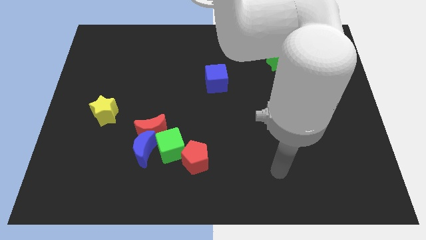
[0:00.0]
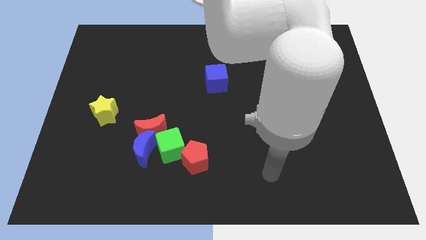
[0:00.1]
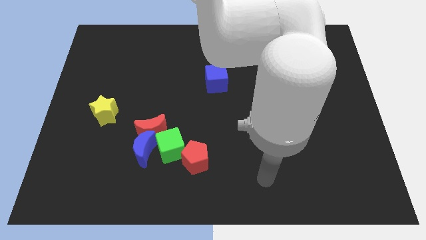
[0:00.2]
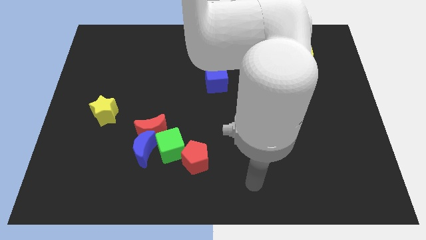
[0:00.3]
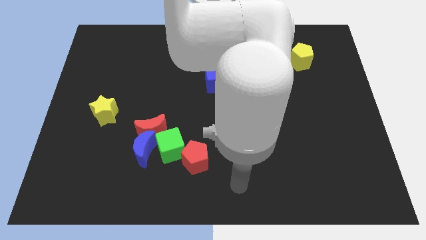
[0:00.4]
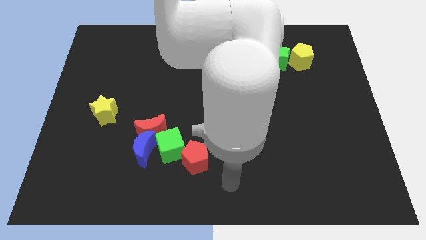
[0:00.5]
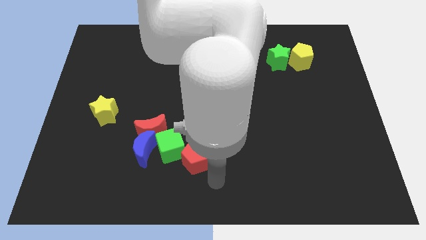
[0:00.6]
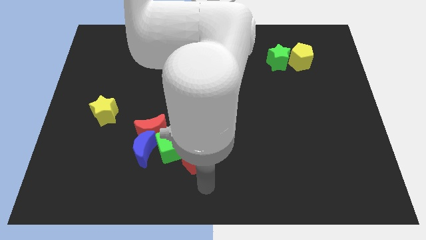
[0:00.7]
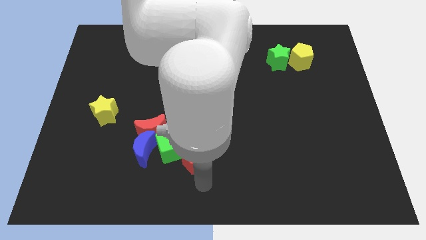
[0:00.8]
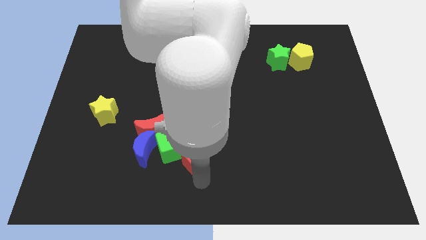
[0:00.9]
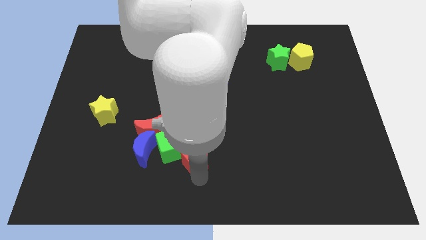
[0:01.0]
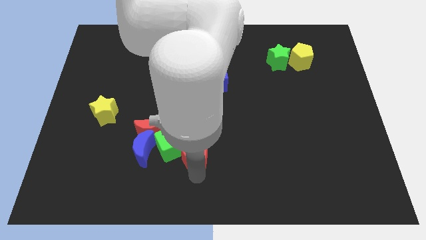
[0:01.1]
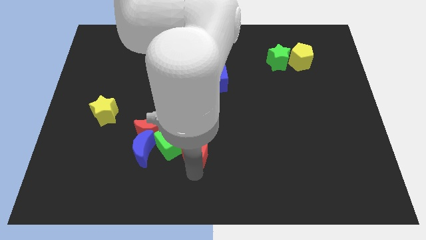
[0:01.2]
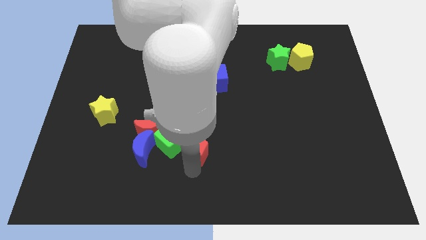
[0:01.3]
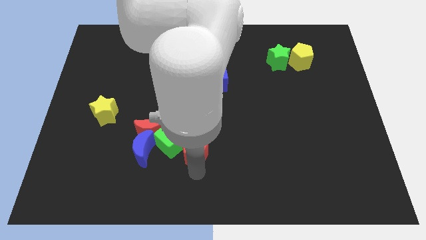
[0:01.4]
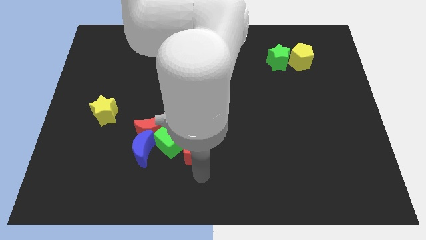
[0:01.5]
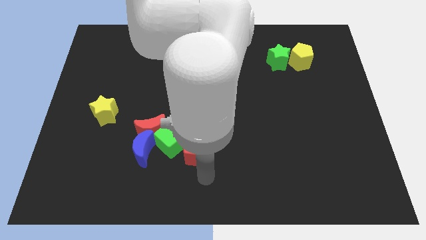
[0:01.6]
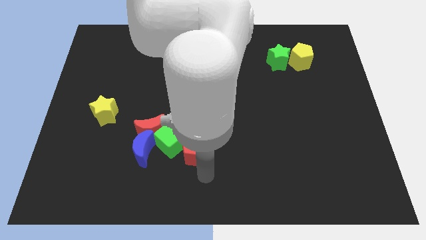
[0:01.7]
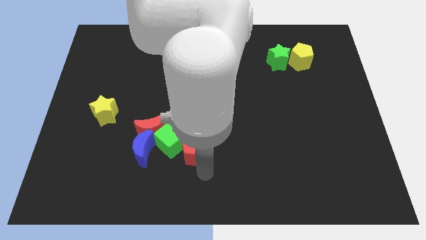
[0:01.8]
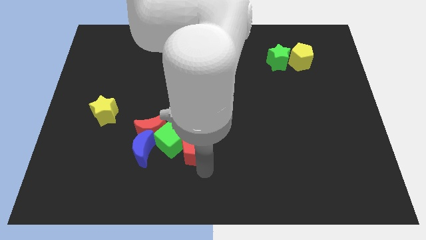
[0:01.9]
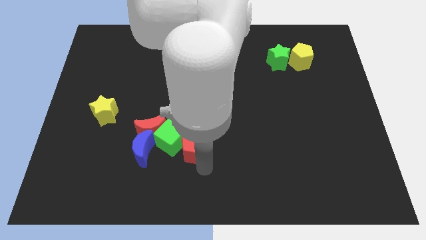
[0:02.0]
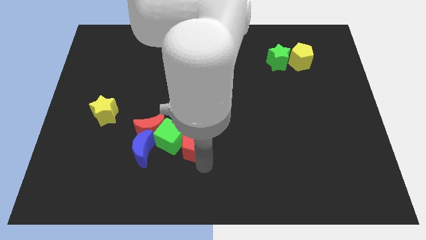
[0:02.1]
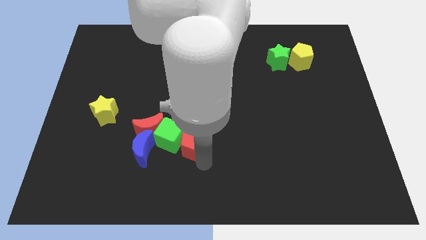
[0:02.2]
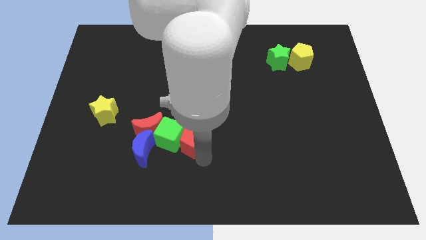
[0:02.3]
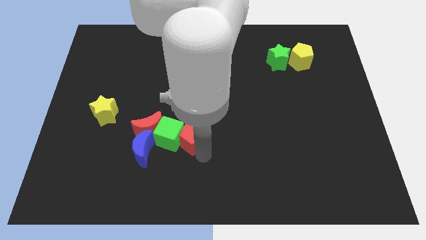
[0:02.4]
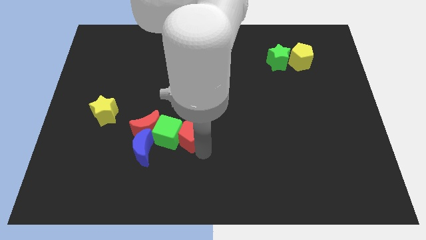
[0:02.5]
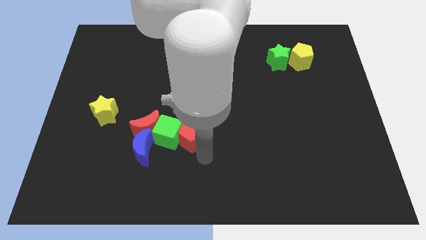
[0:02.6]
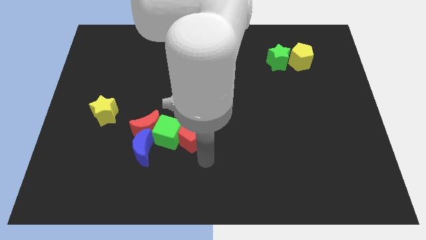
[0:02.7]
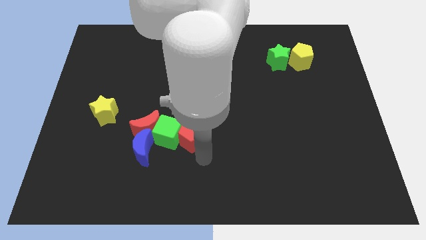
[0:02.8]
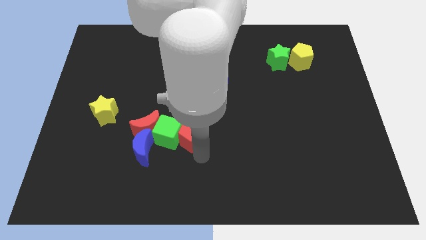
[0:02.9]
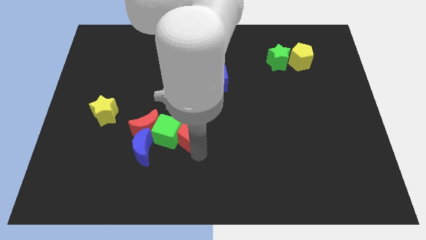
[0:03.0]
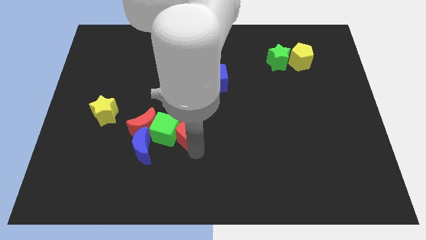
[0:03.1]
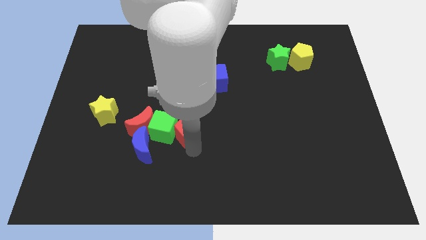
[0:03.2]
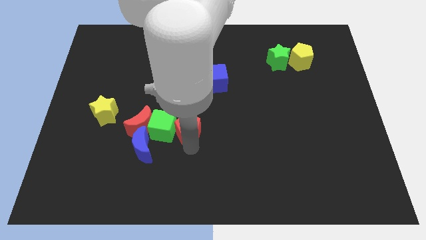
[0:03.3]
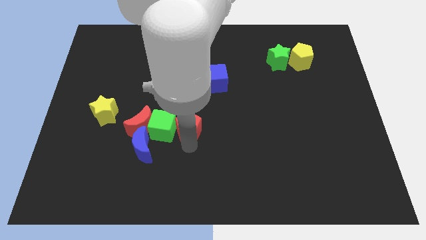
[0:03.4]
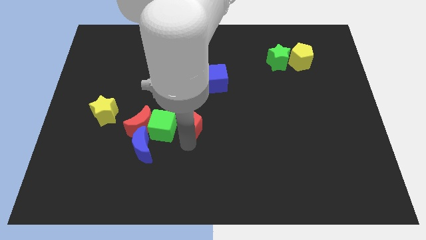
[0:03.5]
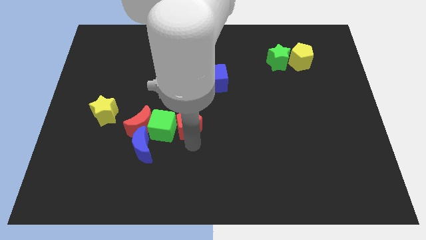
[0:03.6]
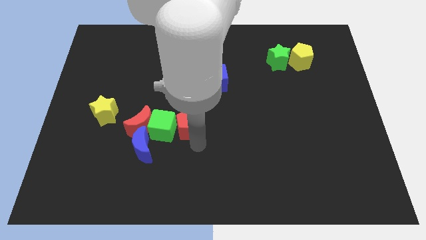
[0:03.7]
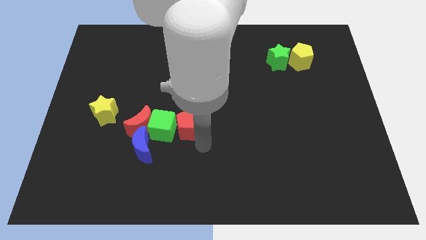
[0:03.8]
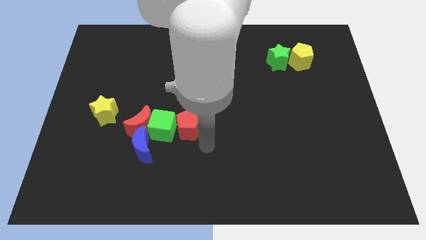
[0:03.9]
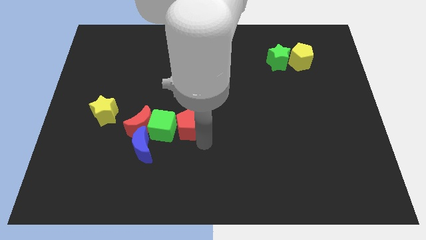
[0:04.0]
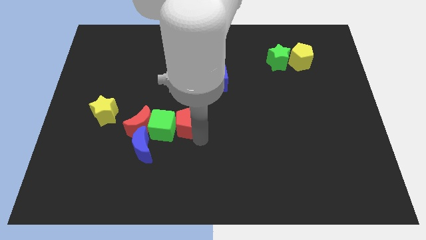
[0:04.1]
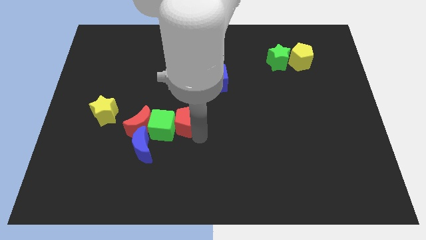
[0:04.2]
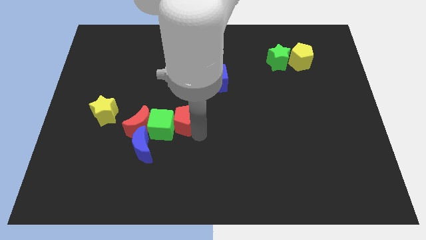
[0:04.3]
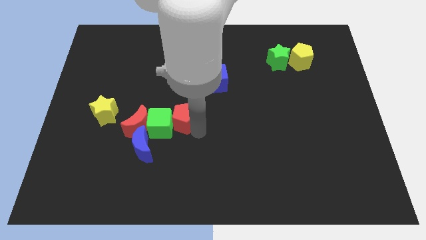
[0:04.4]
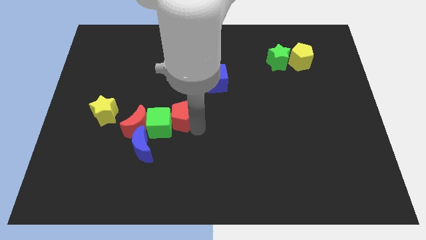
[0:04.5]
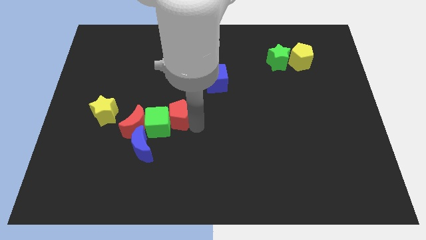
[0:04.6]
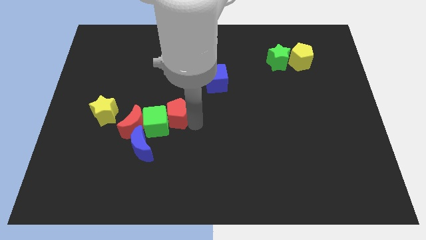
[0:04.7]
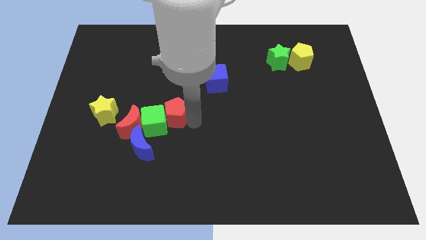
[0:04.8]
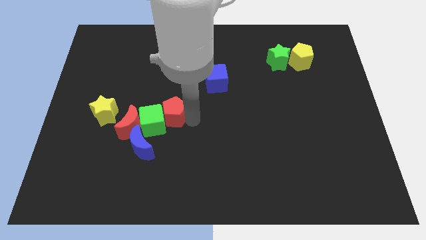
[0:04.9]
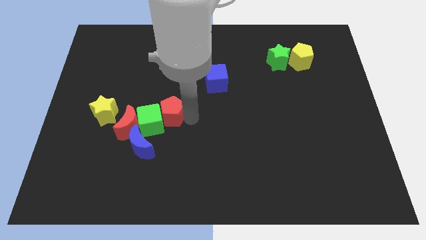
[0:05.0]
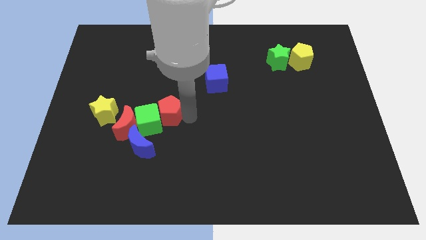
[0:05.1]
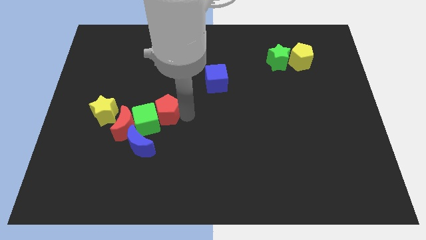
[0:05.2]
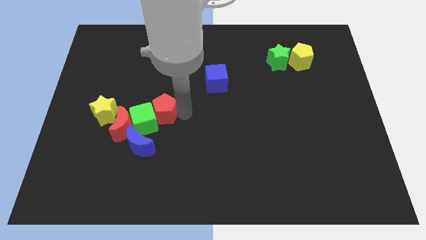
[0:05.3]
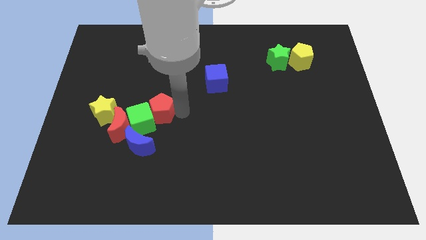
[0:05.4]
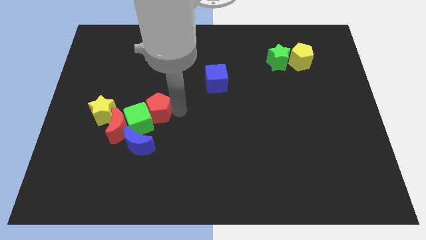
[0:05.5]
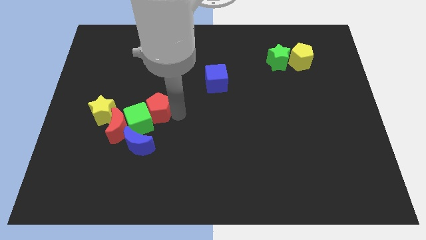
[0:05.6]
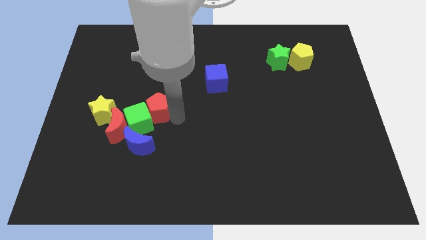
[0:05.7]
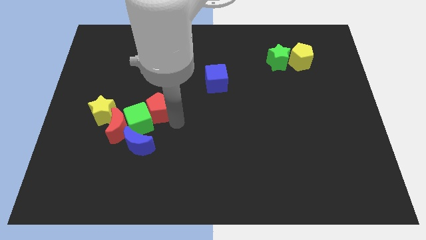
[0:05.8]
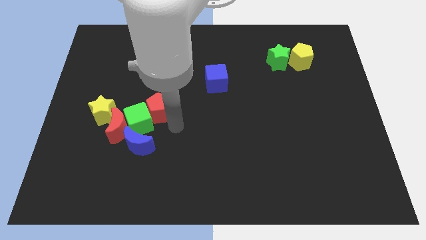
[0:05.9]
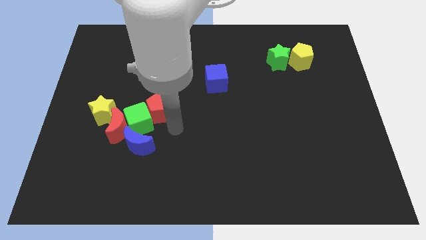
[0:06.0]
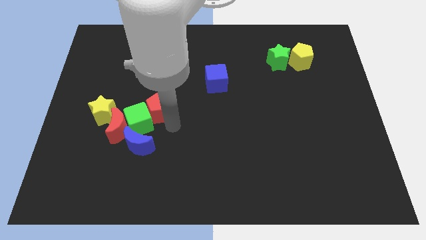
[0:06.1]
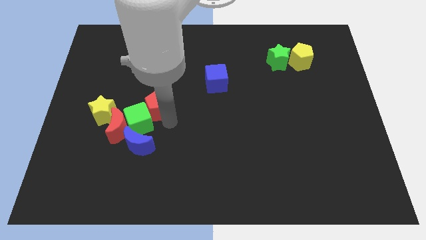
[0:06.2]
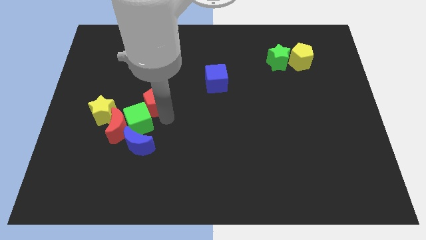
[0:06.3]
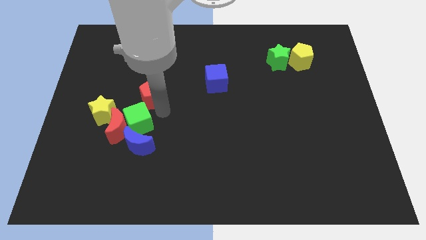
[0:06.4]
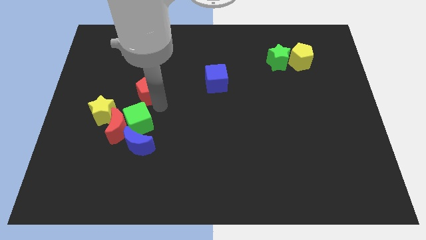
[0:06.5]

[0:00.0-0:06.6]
slide the red pentagon upwards and to the left diagonally

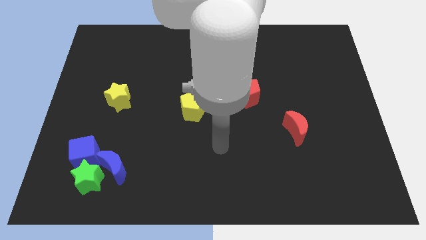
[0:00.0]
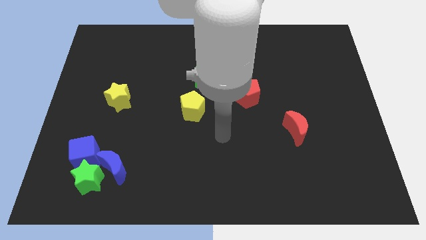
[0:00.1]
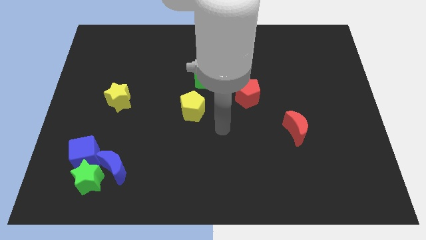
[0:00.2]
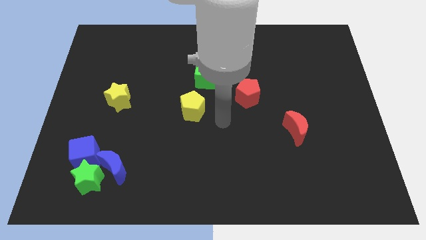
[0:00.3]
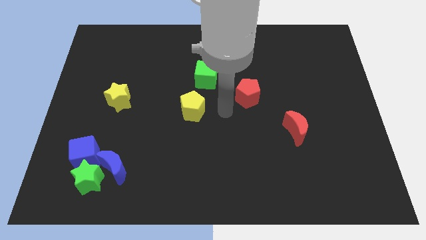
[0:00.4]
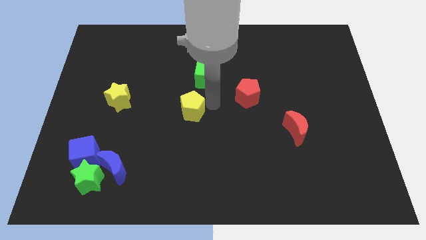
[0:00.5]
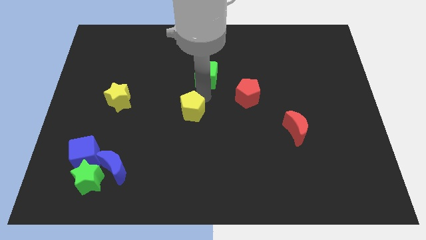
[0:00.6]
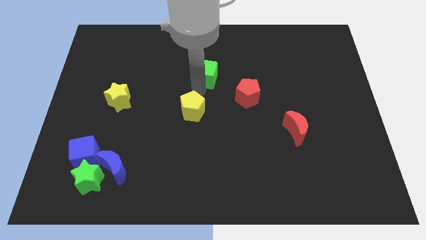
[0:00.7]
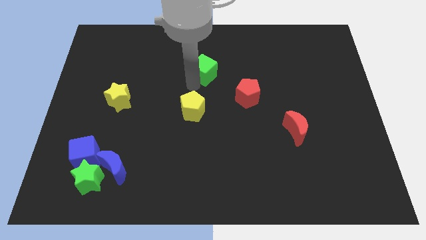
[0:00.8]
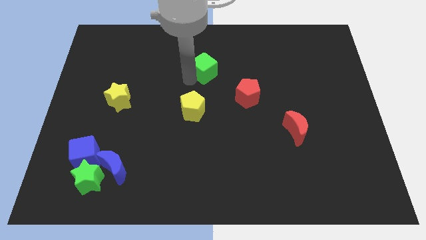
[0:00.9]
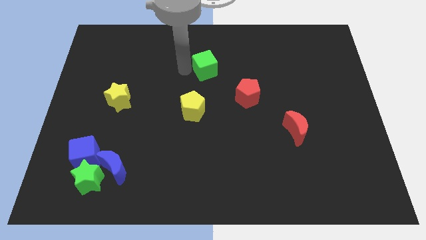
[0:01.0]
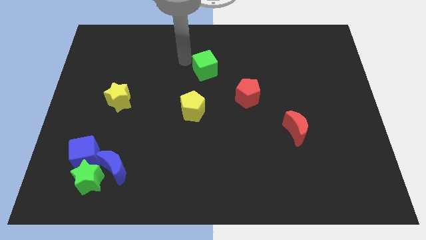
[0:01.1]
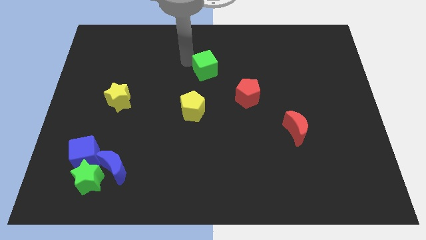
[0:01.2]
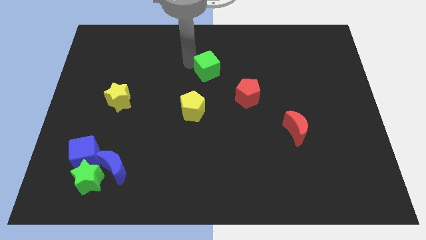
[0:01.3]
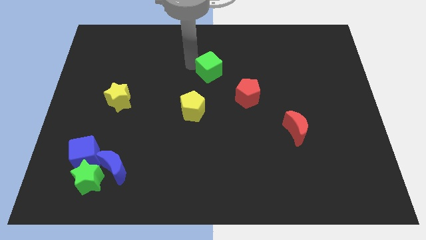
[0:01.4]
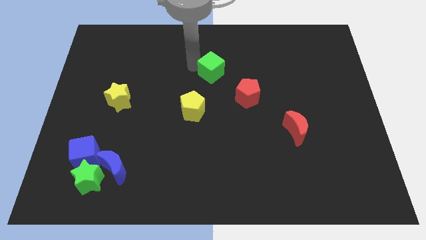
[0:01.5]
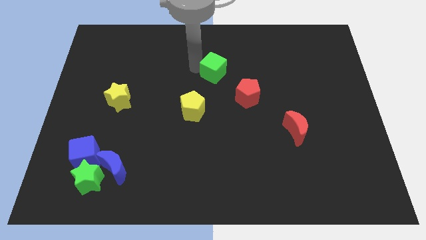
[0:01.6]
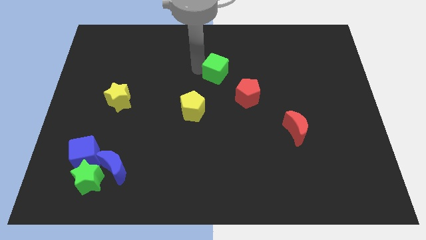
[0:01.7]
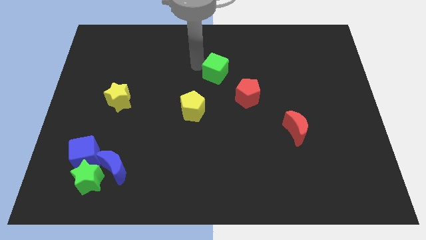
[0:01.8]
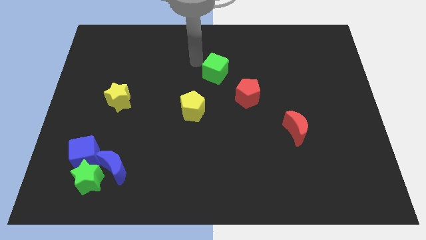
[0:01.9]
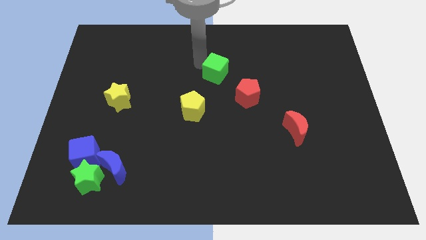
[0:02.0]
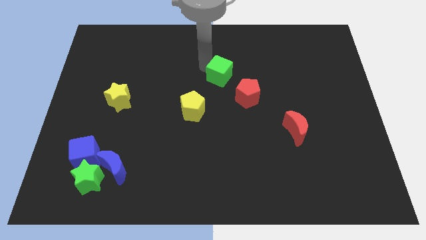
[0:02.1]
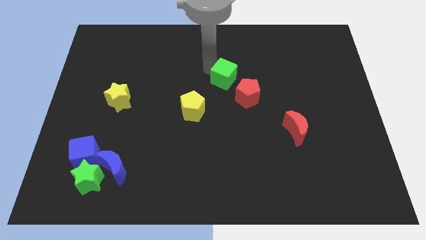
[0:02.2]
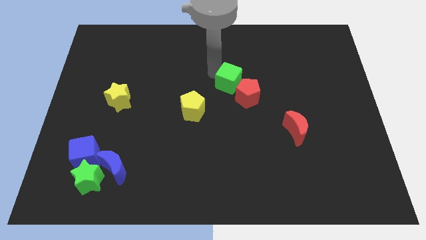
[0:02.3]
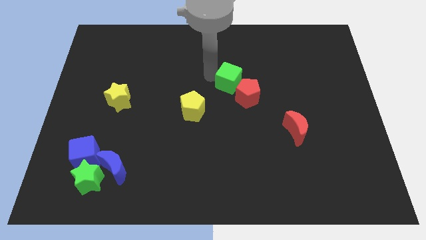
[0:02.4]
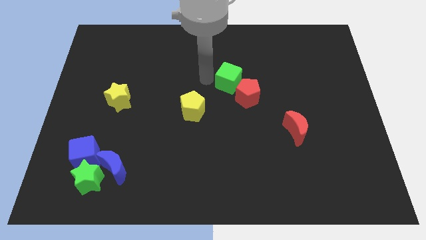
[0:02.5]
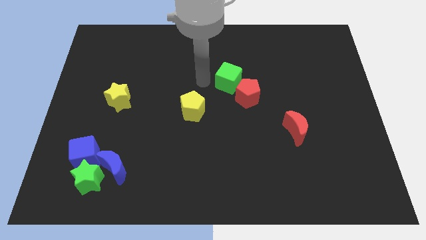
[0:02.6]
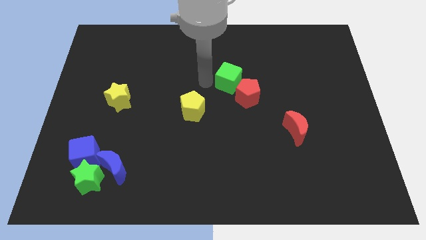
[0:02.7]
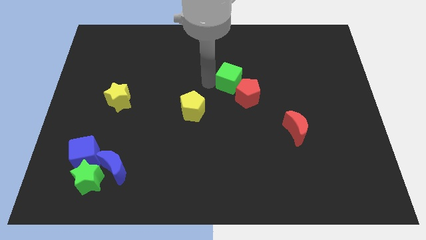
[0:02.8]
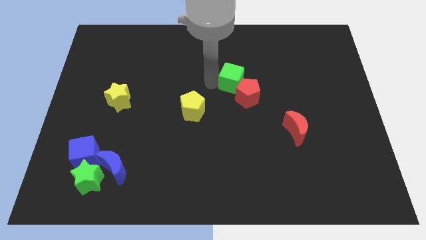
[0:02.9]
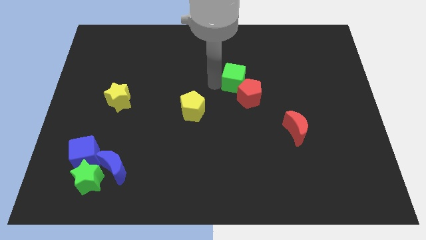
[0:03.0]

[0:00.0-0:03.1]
slightly move the green cube right
